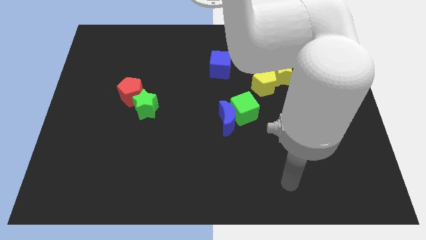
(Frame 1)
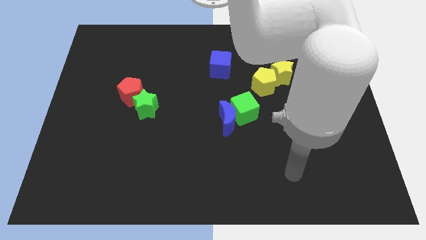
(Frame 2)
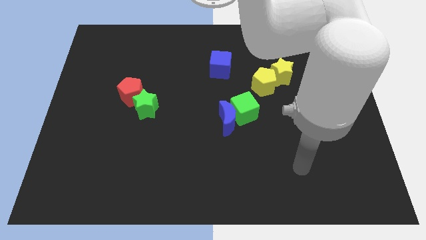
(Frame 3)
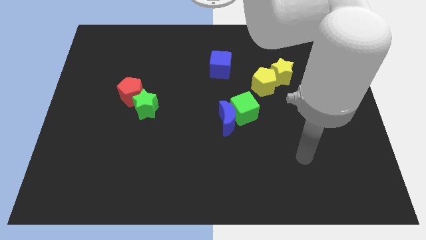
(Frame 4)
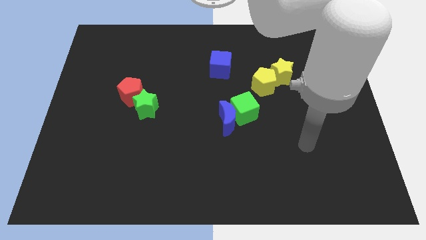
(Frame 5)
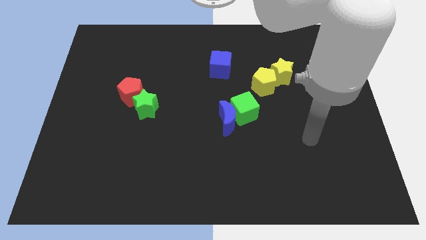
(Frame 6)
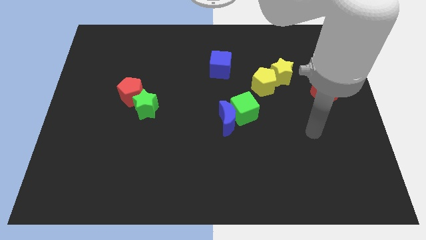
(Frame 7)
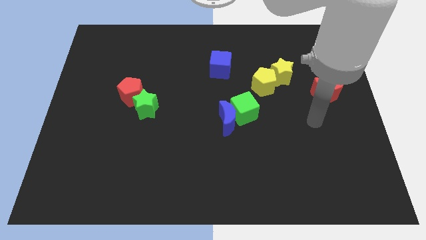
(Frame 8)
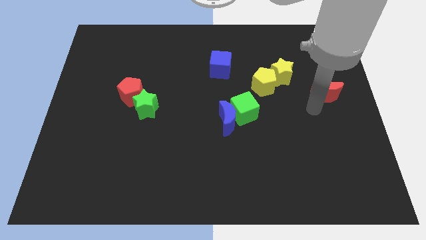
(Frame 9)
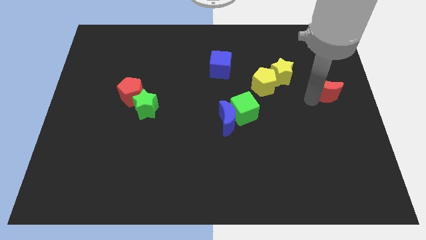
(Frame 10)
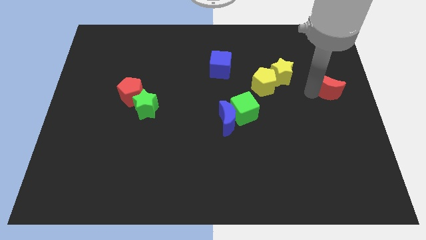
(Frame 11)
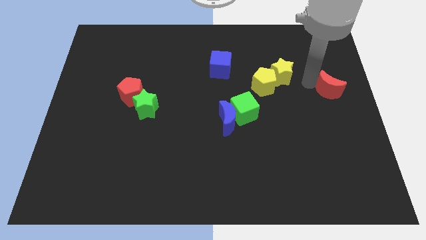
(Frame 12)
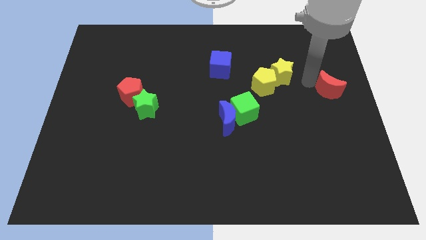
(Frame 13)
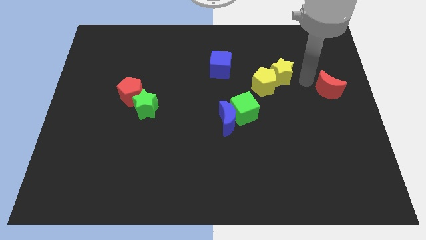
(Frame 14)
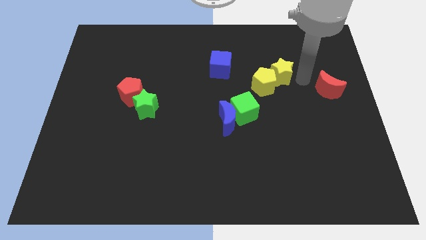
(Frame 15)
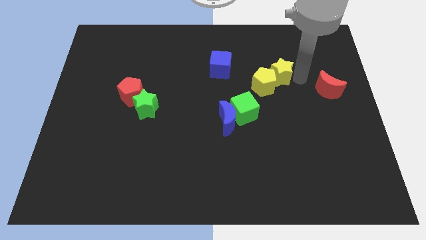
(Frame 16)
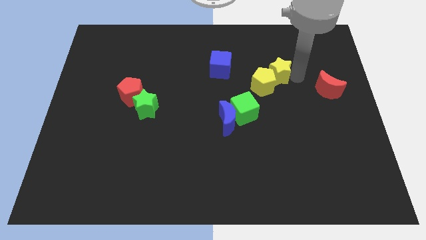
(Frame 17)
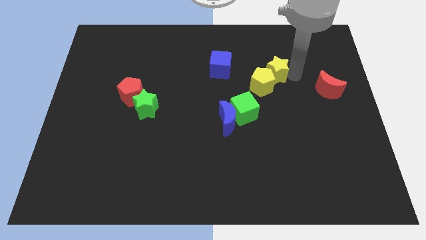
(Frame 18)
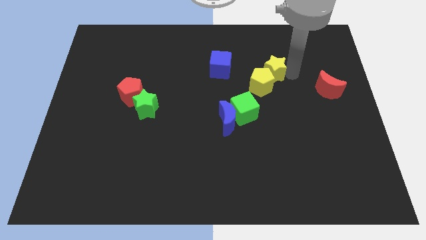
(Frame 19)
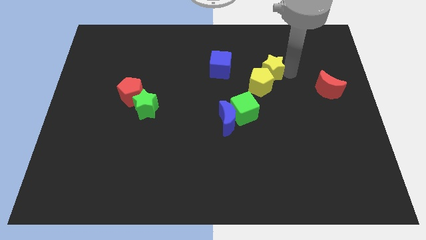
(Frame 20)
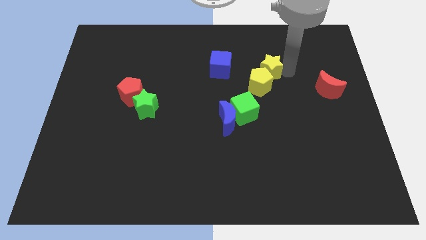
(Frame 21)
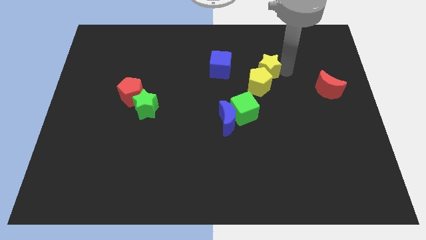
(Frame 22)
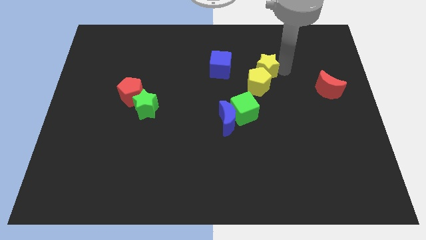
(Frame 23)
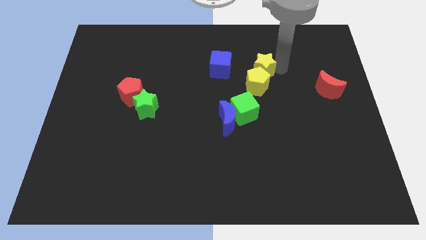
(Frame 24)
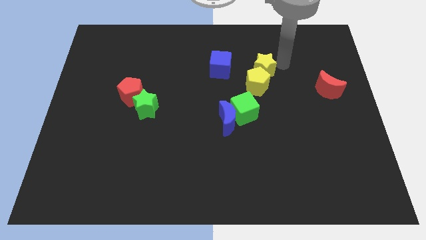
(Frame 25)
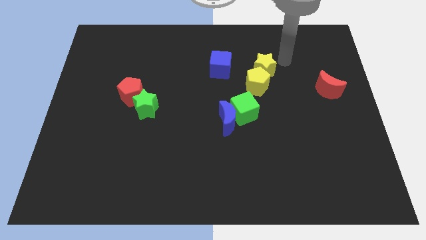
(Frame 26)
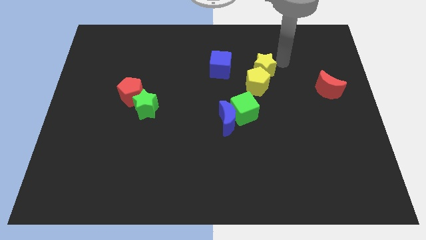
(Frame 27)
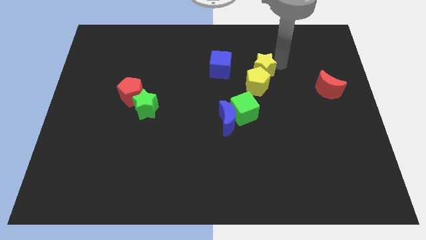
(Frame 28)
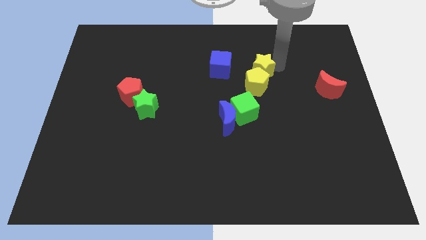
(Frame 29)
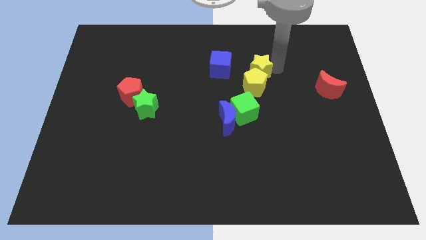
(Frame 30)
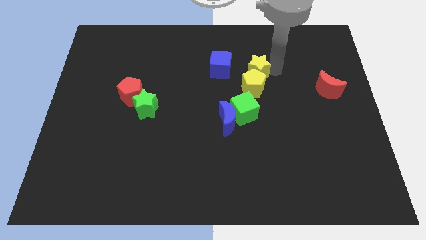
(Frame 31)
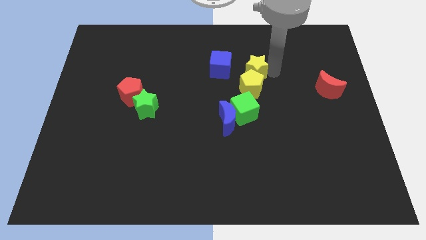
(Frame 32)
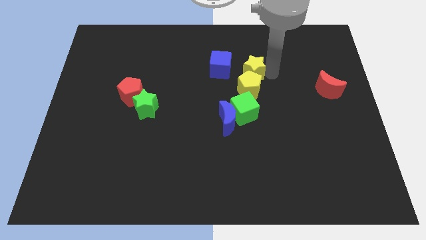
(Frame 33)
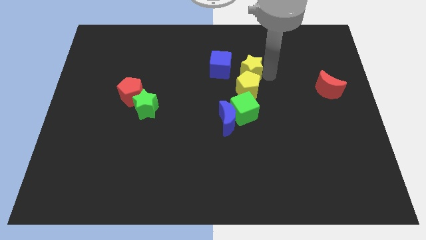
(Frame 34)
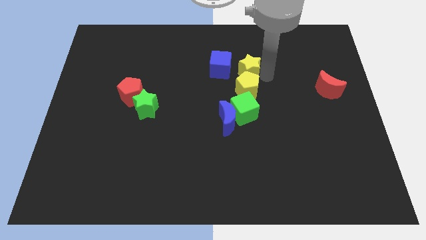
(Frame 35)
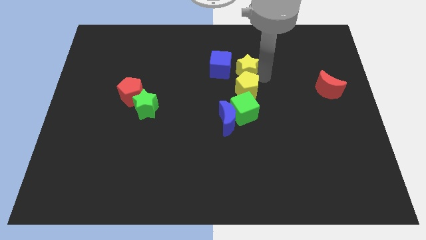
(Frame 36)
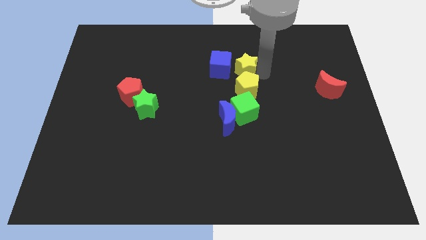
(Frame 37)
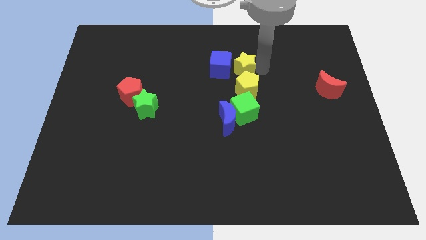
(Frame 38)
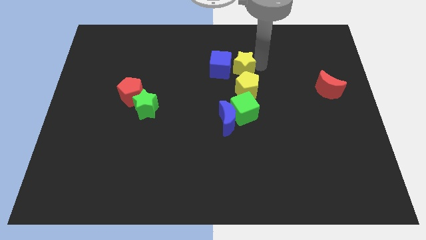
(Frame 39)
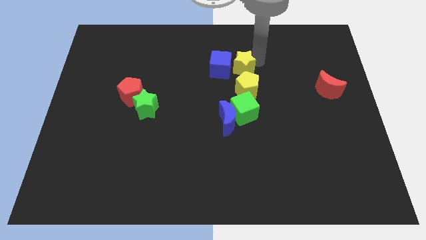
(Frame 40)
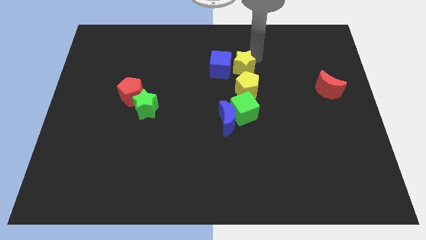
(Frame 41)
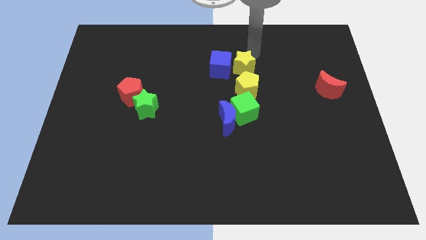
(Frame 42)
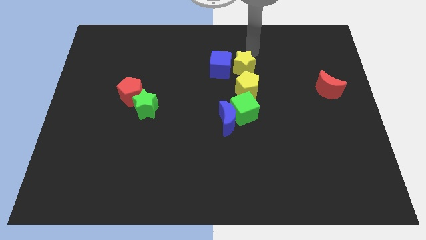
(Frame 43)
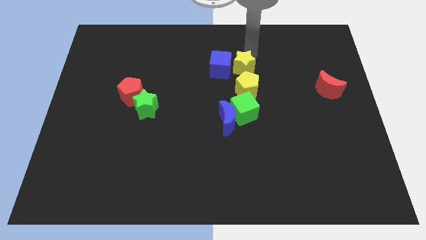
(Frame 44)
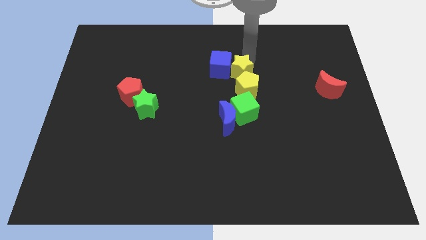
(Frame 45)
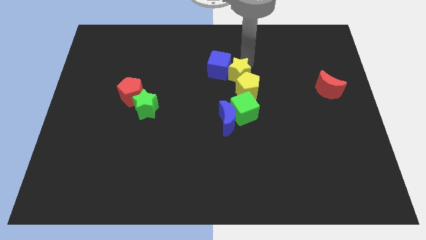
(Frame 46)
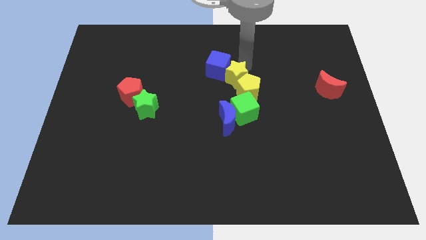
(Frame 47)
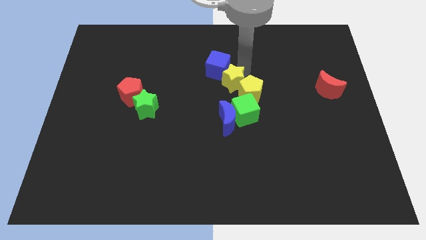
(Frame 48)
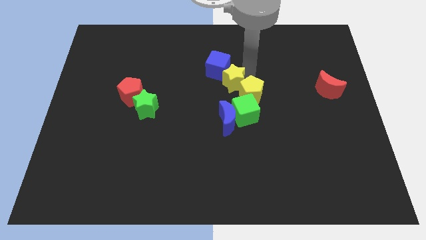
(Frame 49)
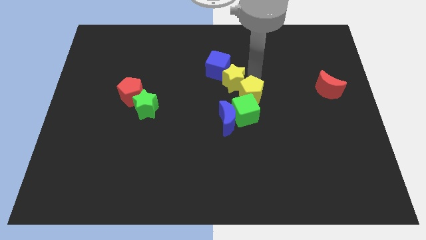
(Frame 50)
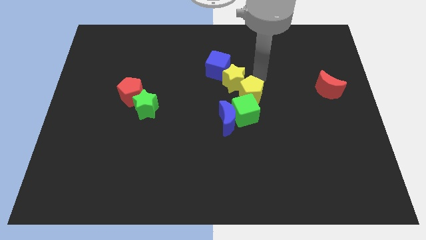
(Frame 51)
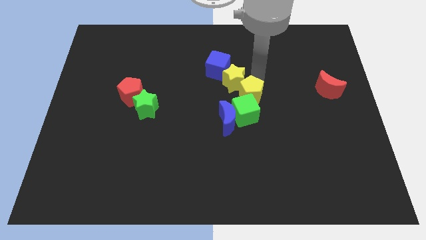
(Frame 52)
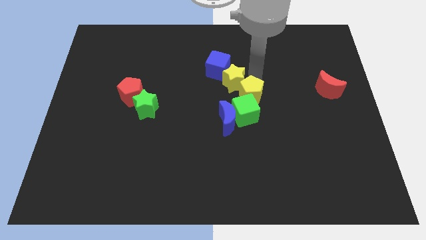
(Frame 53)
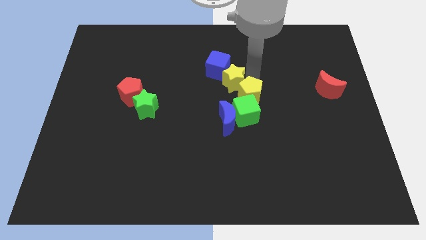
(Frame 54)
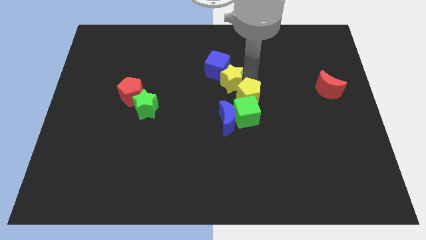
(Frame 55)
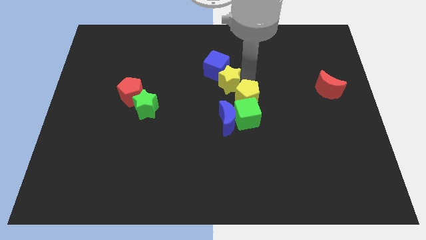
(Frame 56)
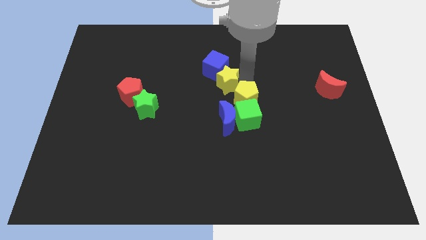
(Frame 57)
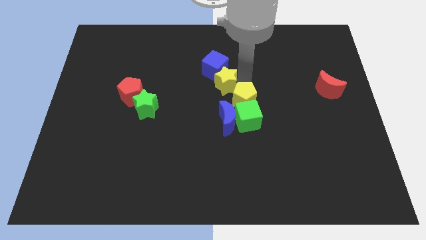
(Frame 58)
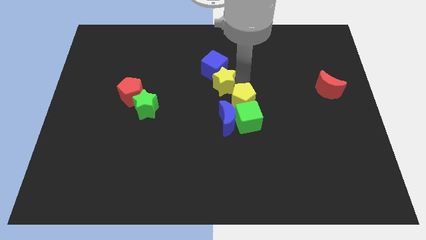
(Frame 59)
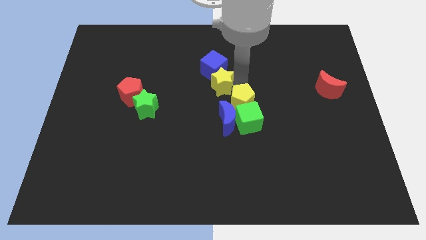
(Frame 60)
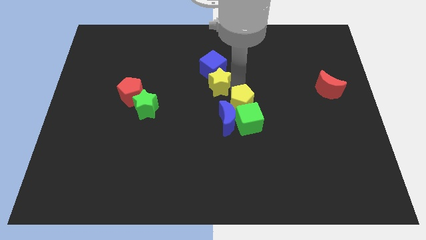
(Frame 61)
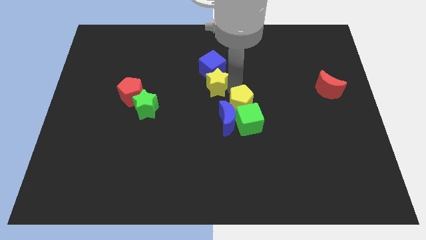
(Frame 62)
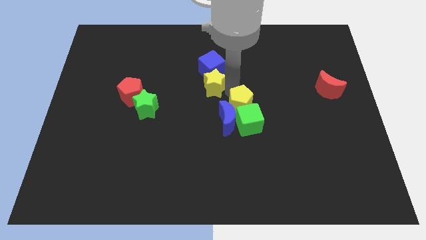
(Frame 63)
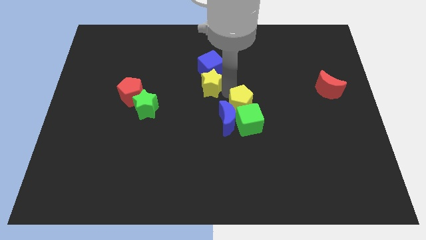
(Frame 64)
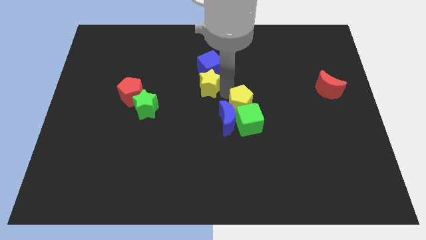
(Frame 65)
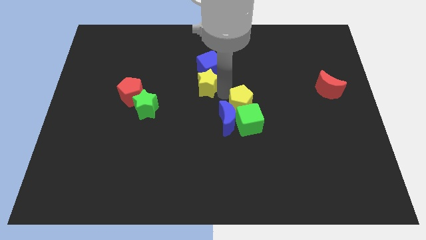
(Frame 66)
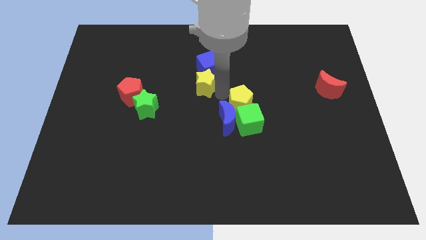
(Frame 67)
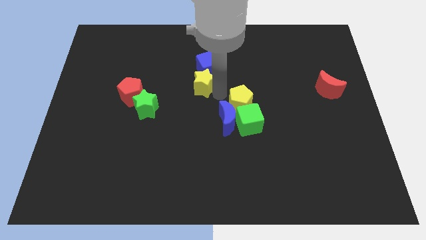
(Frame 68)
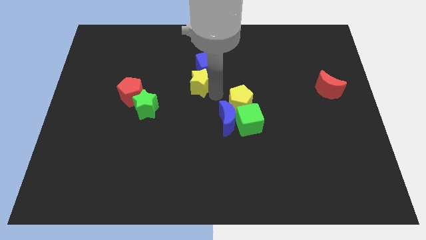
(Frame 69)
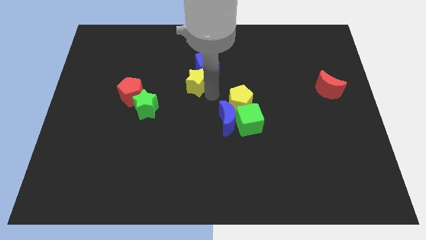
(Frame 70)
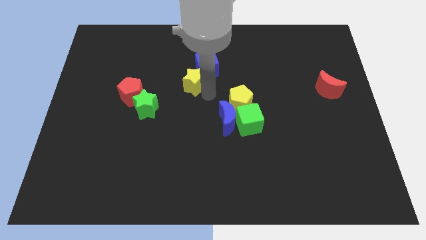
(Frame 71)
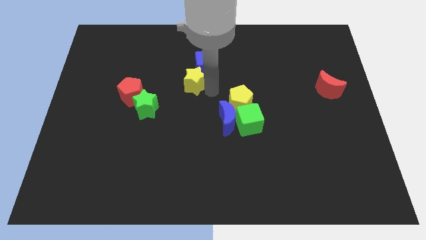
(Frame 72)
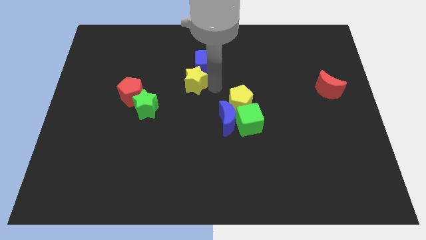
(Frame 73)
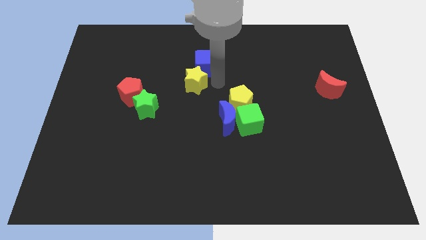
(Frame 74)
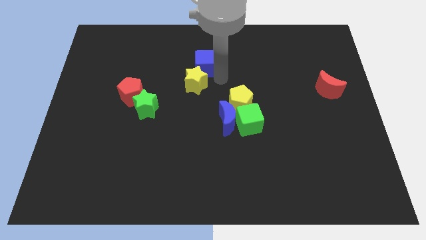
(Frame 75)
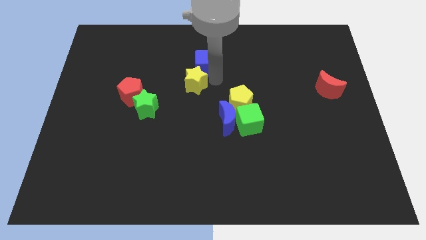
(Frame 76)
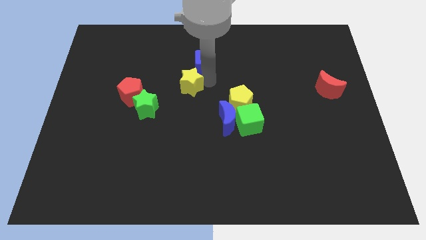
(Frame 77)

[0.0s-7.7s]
move the yellow star diagonally up and to the right of the green star
